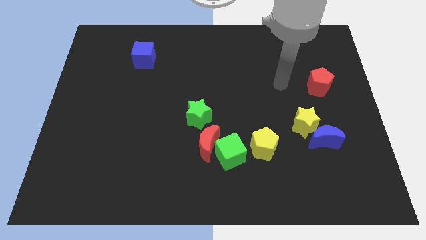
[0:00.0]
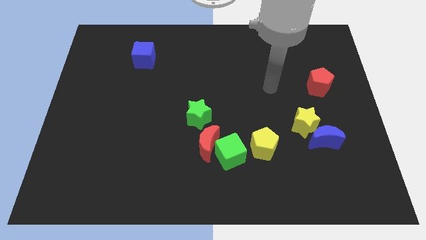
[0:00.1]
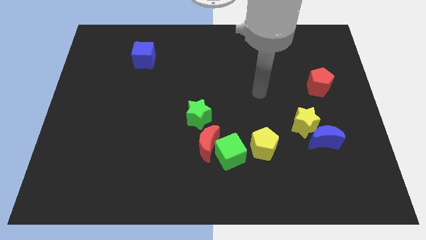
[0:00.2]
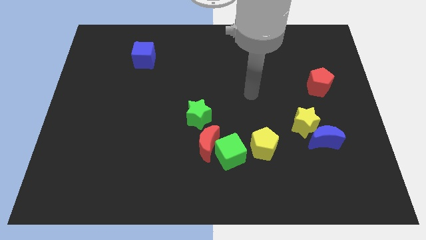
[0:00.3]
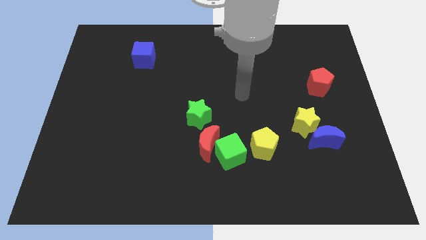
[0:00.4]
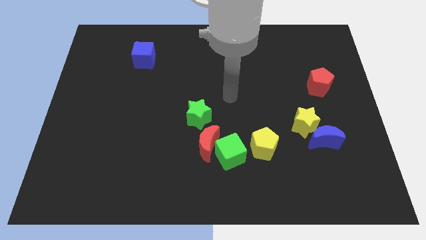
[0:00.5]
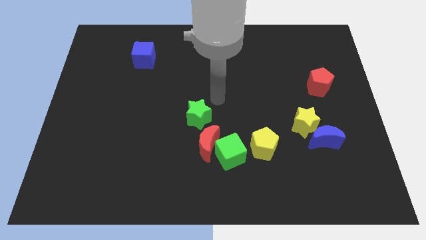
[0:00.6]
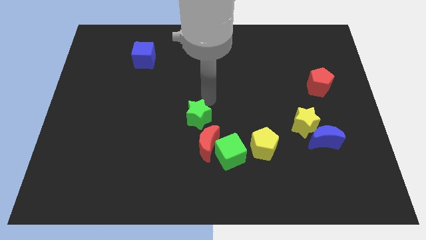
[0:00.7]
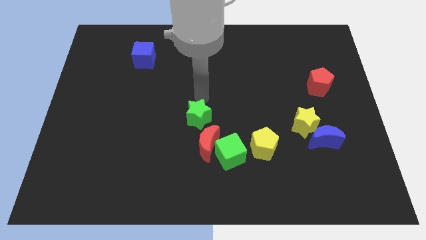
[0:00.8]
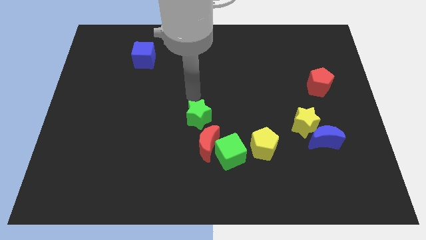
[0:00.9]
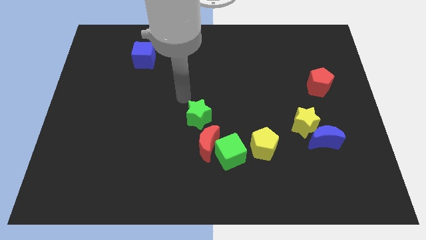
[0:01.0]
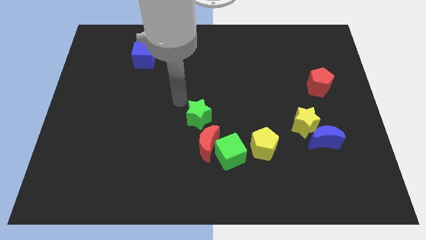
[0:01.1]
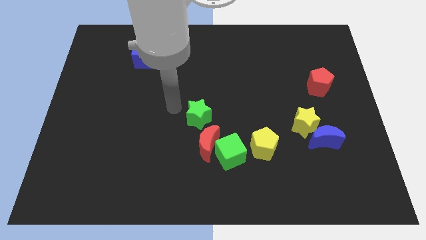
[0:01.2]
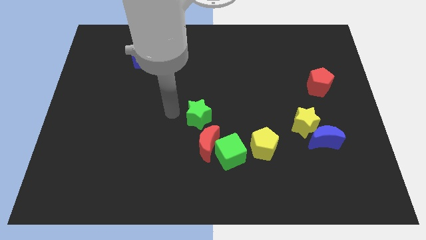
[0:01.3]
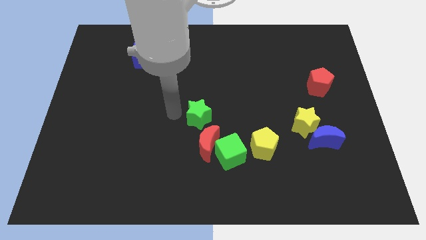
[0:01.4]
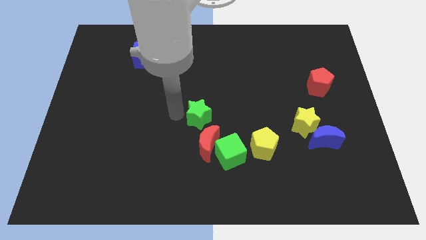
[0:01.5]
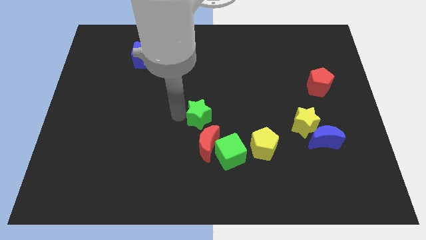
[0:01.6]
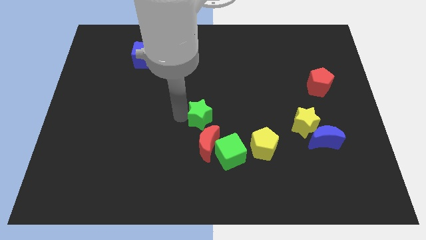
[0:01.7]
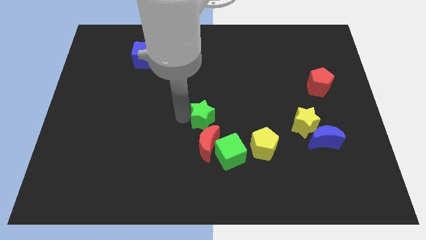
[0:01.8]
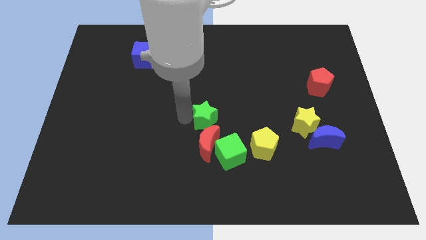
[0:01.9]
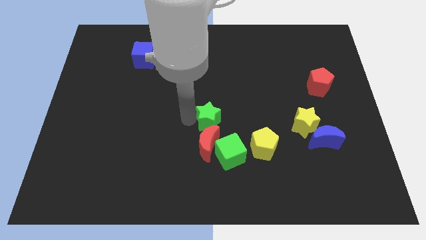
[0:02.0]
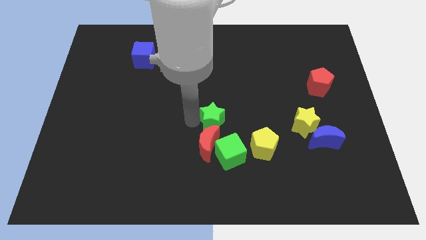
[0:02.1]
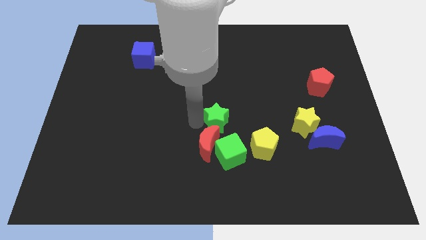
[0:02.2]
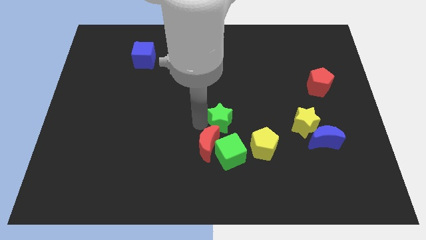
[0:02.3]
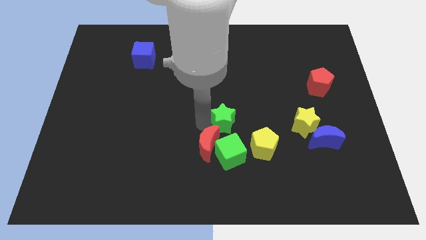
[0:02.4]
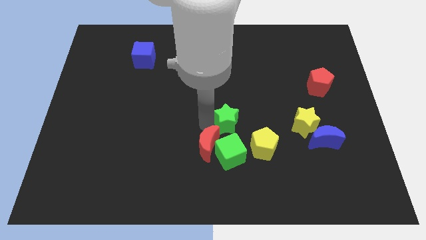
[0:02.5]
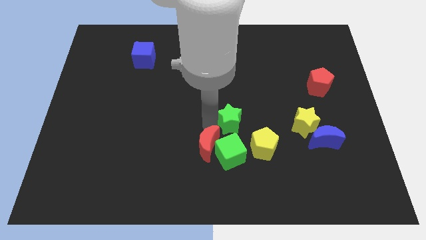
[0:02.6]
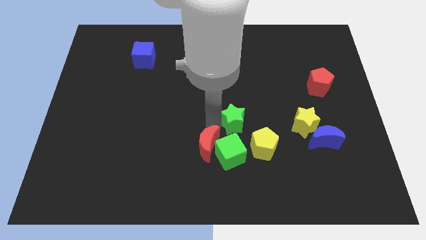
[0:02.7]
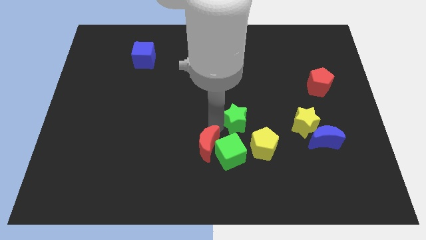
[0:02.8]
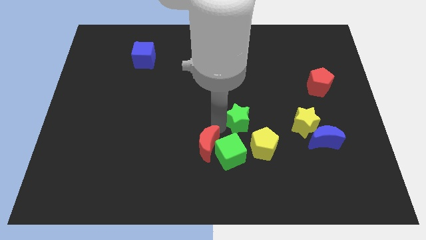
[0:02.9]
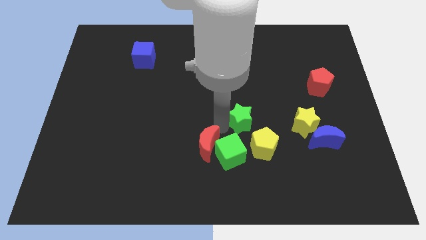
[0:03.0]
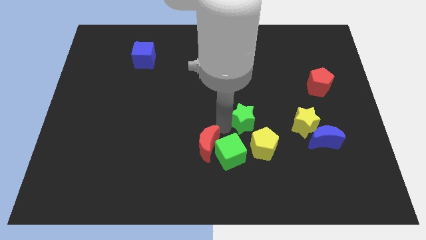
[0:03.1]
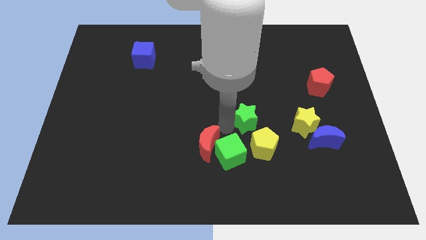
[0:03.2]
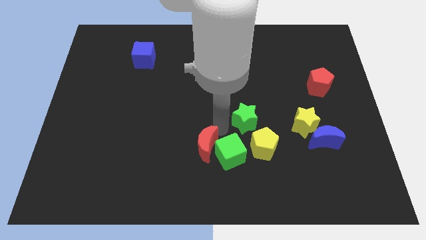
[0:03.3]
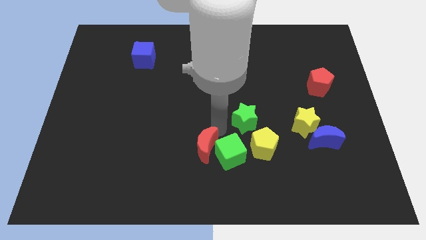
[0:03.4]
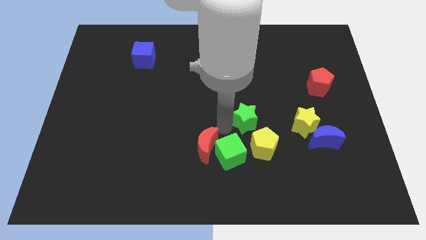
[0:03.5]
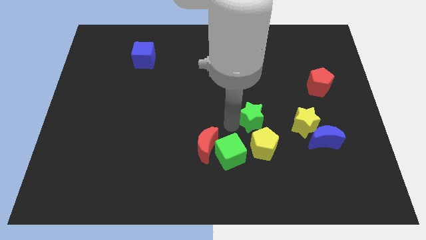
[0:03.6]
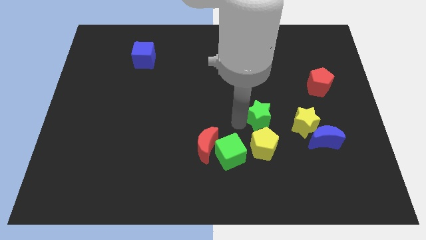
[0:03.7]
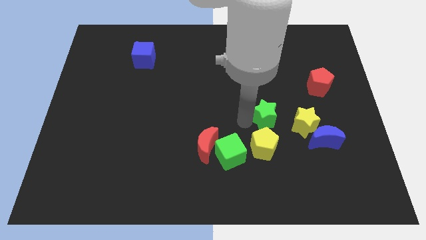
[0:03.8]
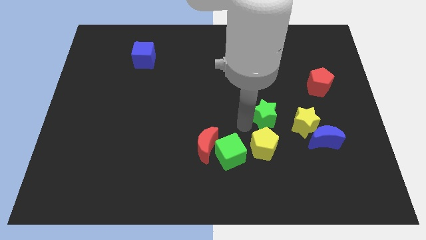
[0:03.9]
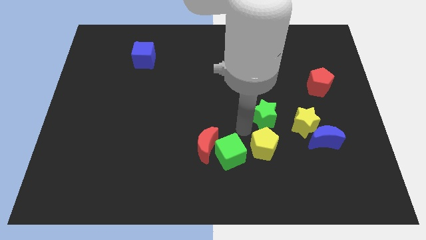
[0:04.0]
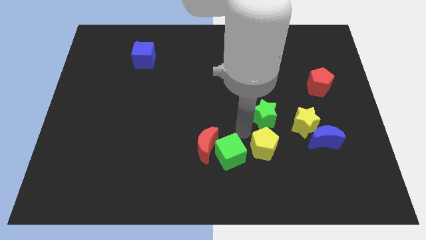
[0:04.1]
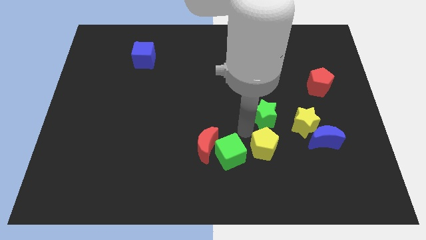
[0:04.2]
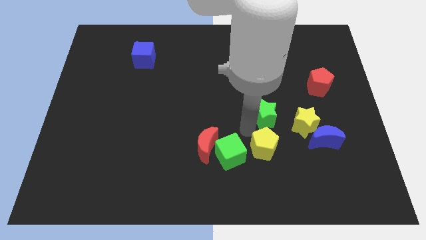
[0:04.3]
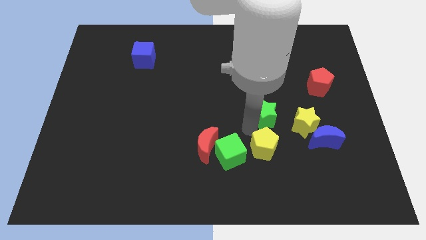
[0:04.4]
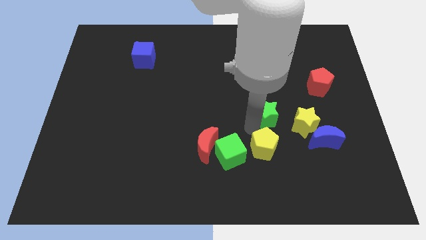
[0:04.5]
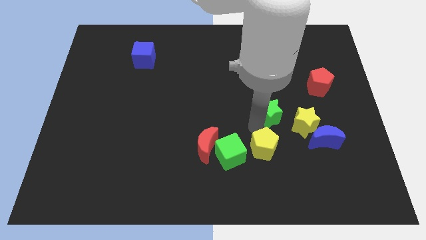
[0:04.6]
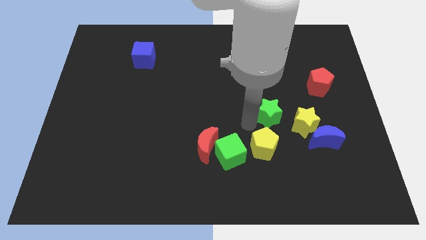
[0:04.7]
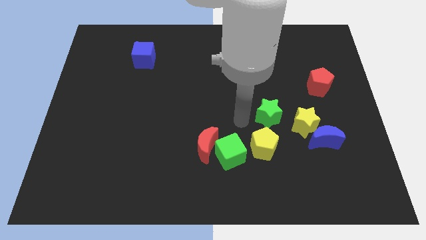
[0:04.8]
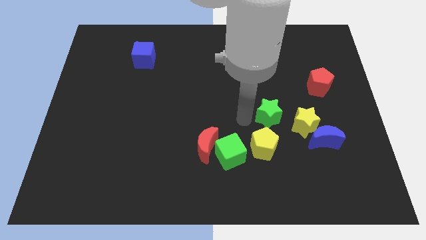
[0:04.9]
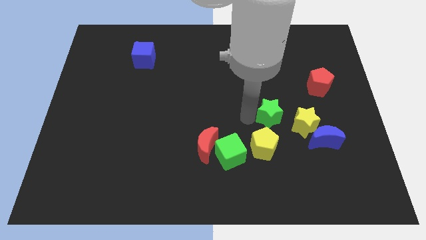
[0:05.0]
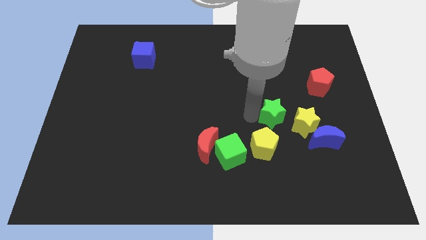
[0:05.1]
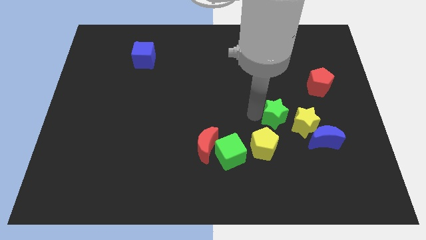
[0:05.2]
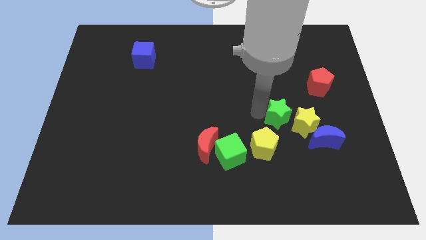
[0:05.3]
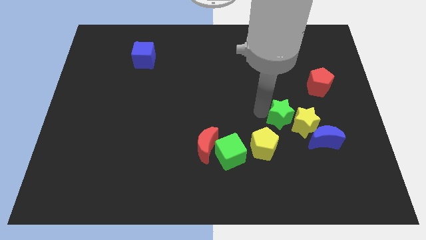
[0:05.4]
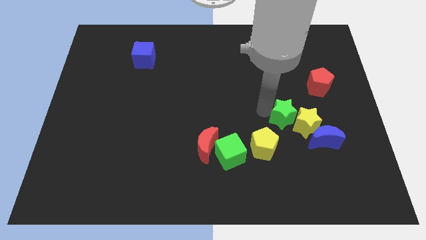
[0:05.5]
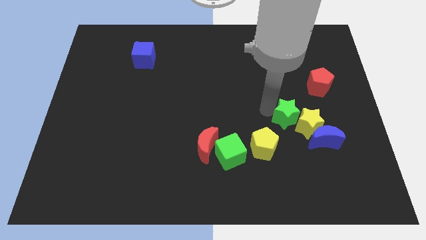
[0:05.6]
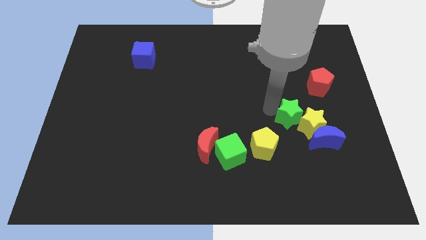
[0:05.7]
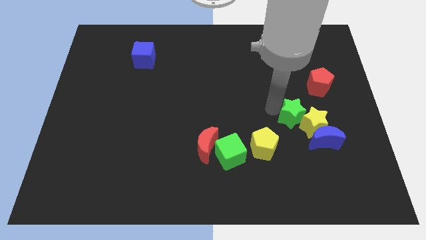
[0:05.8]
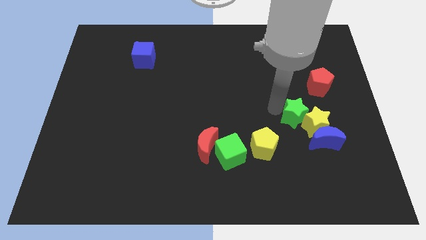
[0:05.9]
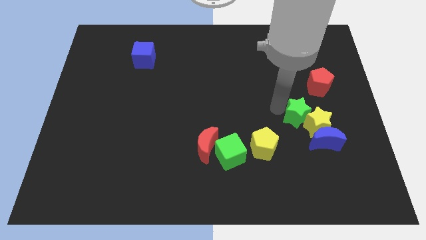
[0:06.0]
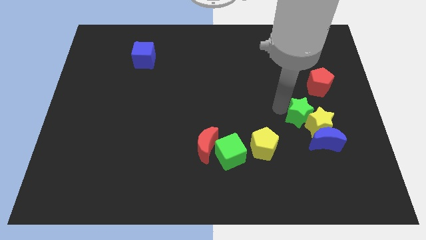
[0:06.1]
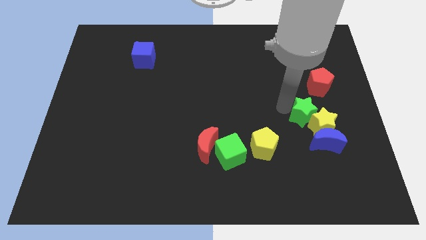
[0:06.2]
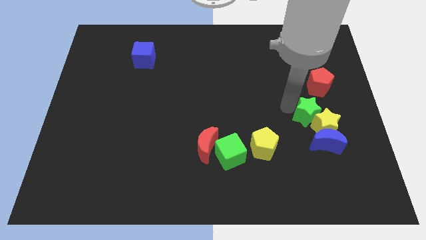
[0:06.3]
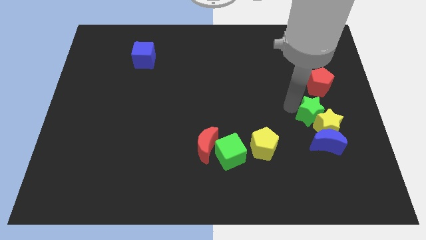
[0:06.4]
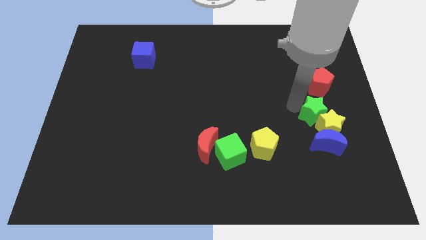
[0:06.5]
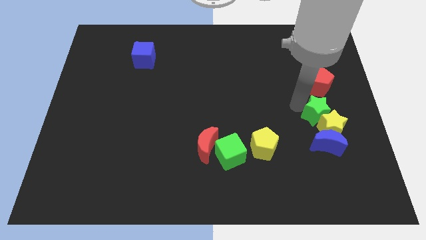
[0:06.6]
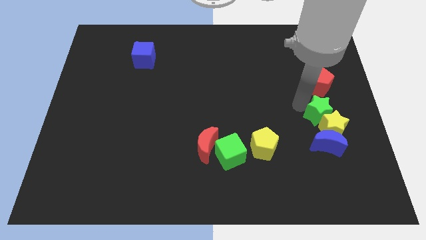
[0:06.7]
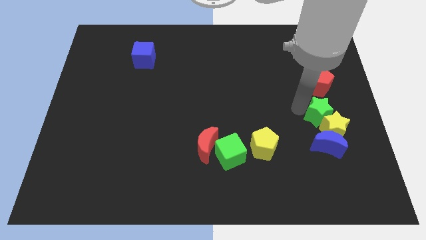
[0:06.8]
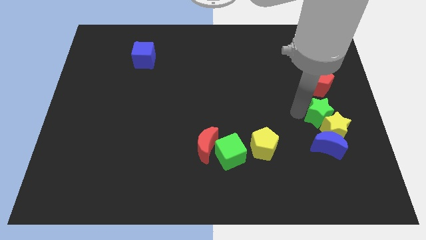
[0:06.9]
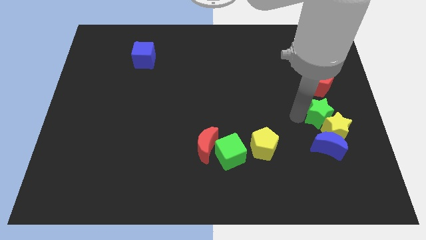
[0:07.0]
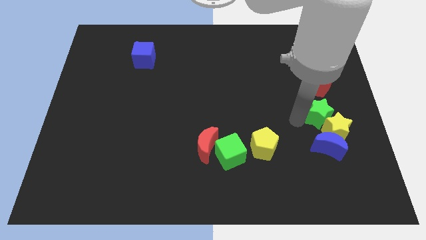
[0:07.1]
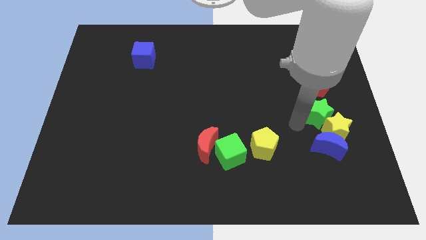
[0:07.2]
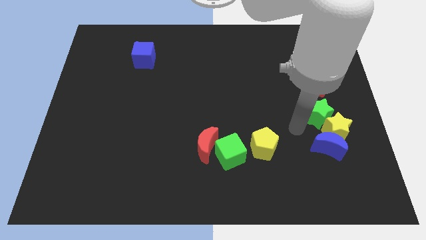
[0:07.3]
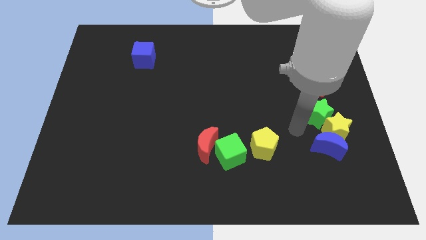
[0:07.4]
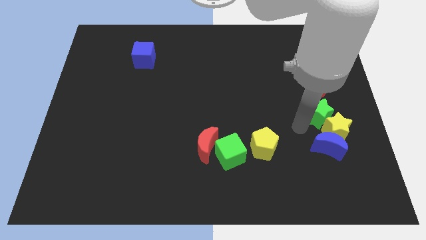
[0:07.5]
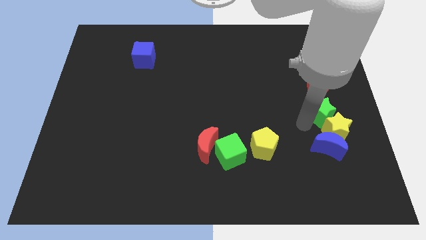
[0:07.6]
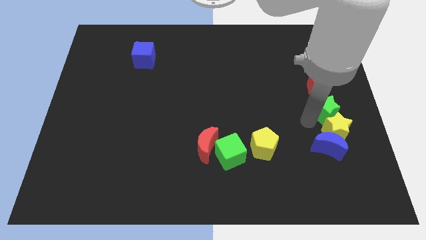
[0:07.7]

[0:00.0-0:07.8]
move the green star to the center right
